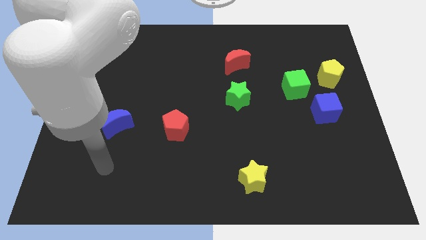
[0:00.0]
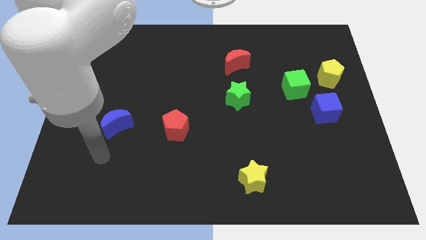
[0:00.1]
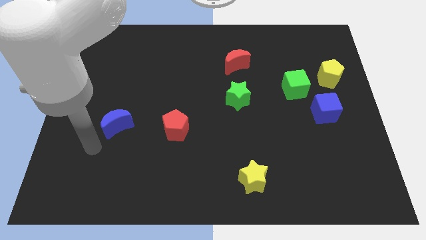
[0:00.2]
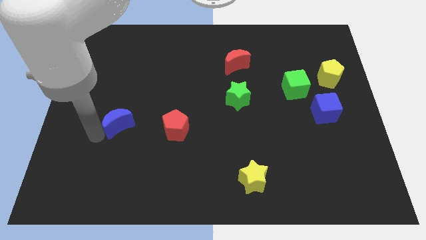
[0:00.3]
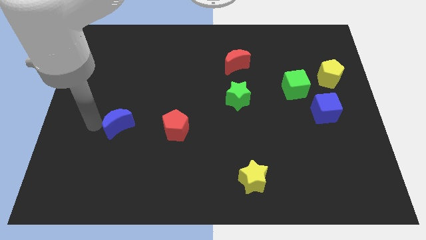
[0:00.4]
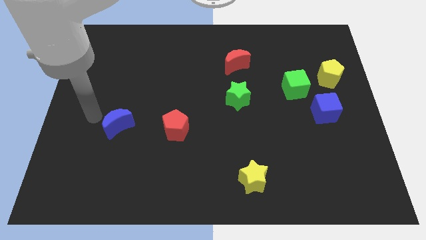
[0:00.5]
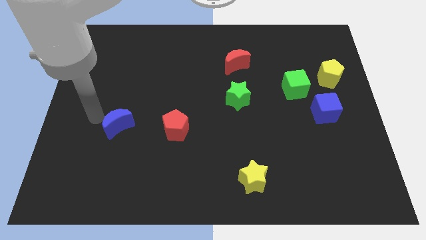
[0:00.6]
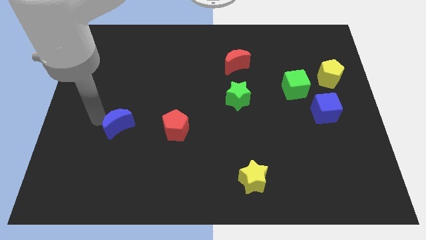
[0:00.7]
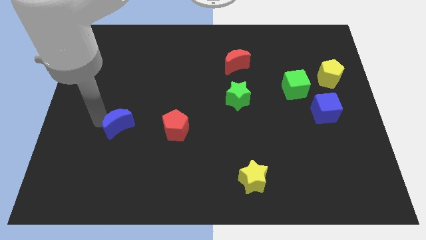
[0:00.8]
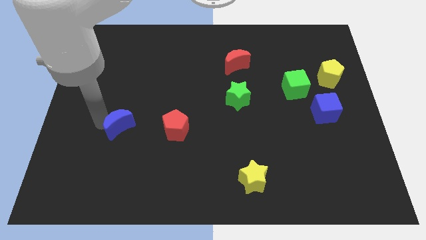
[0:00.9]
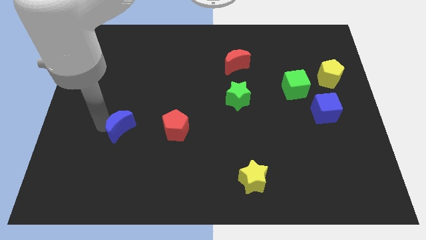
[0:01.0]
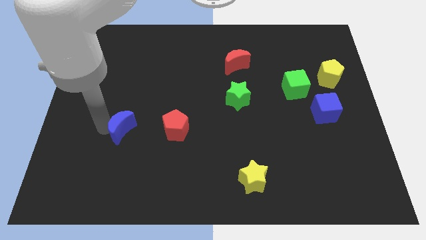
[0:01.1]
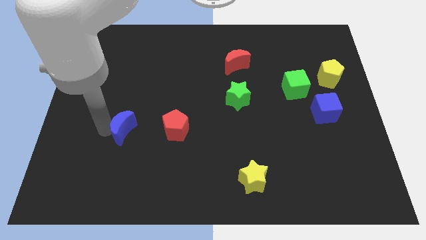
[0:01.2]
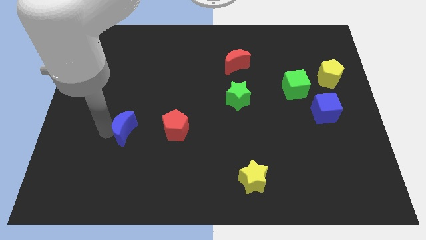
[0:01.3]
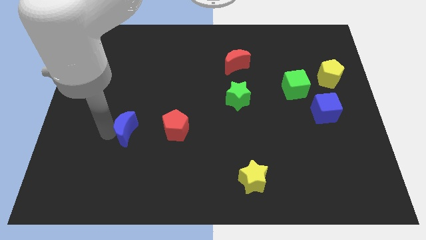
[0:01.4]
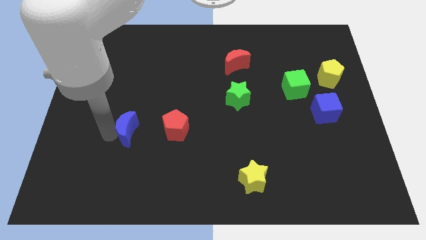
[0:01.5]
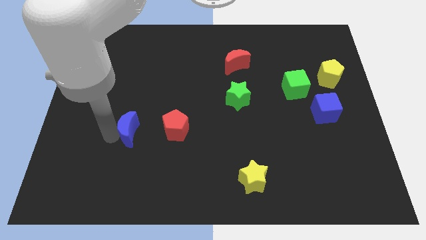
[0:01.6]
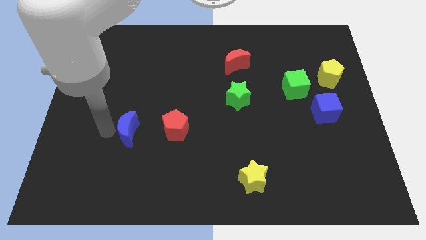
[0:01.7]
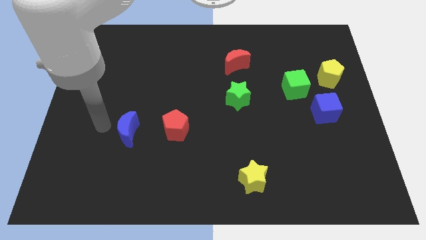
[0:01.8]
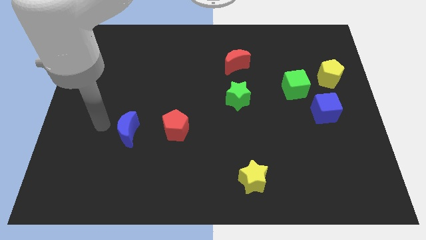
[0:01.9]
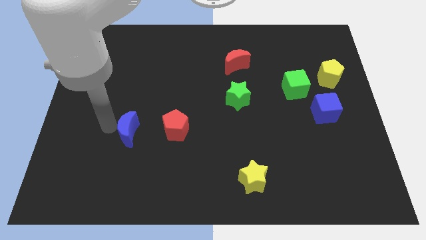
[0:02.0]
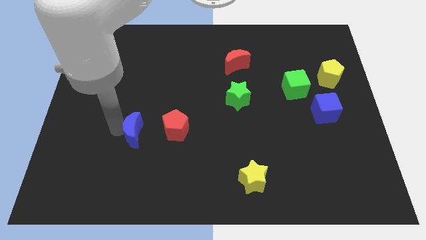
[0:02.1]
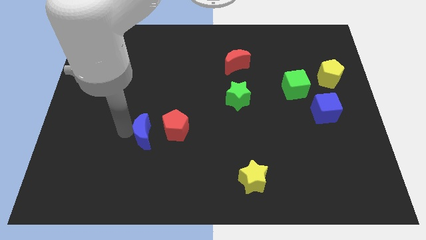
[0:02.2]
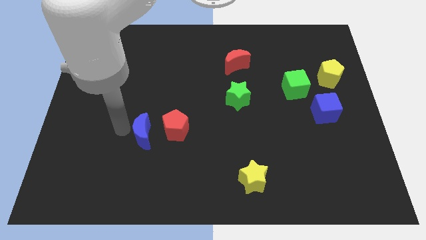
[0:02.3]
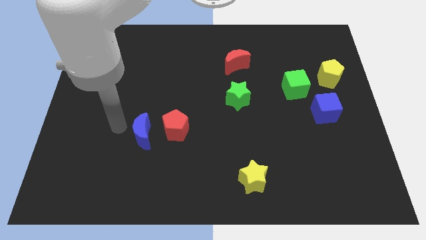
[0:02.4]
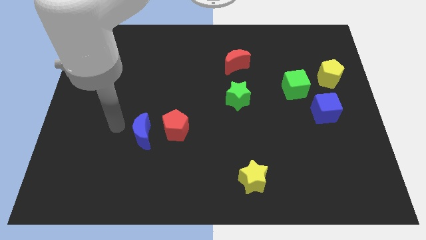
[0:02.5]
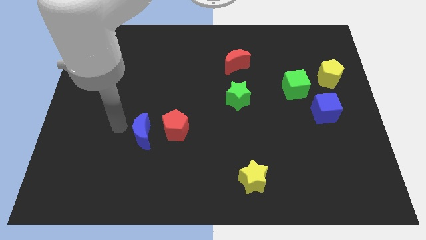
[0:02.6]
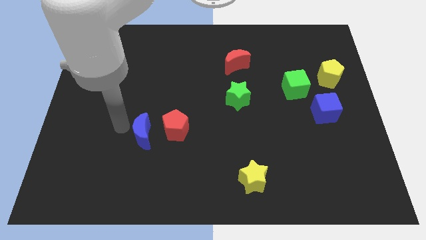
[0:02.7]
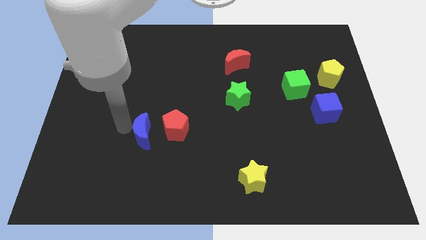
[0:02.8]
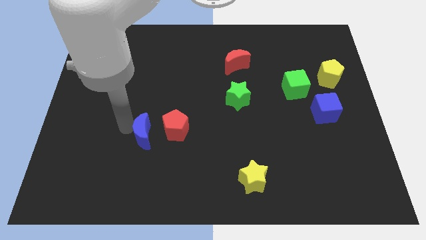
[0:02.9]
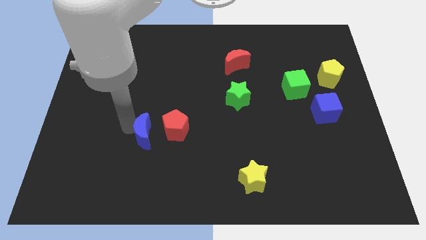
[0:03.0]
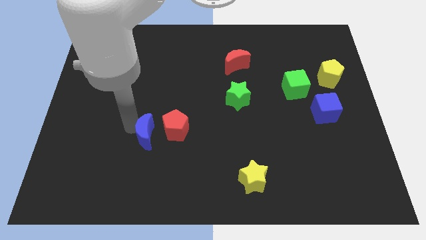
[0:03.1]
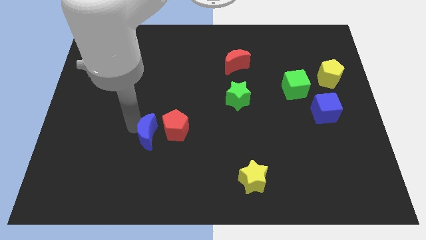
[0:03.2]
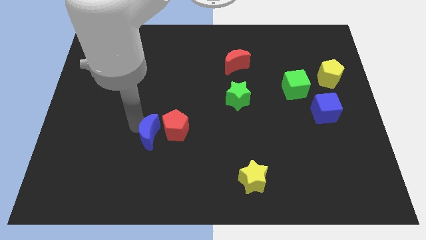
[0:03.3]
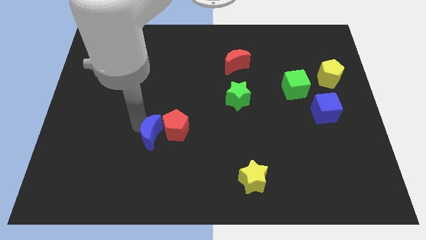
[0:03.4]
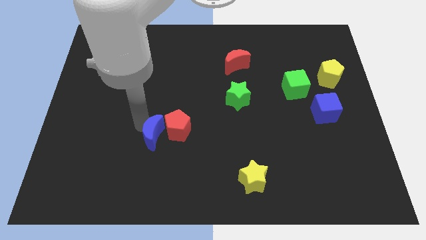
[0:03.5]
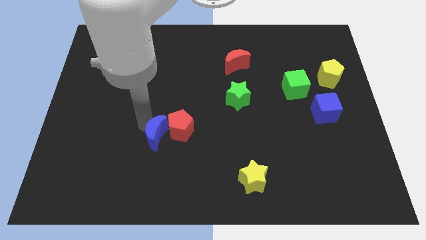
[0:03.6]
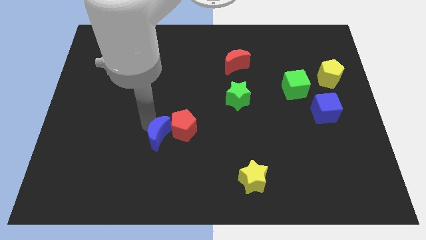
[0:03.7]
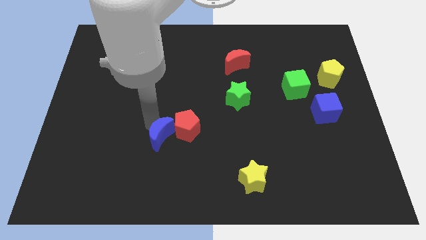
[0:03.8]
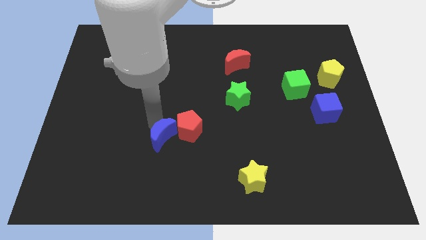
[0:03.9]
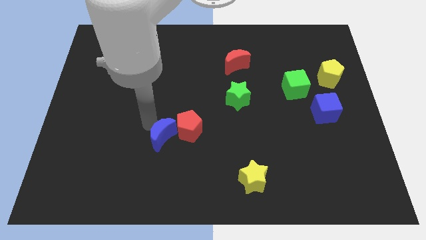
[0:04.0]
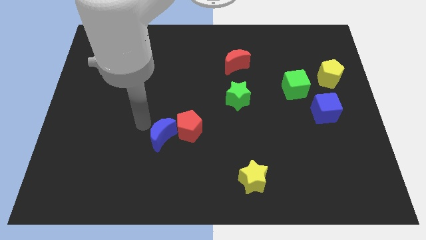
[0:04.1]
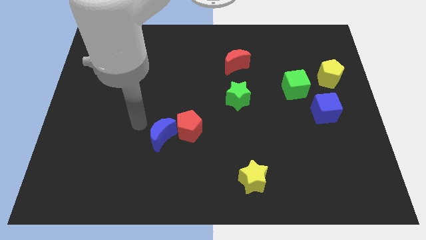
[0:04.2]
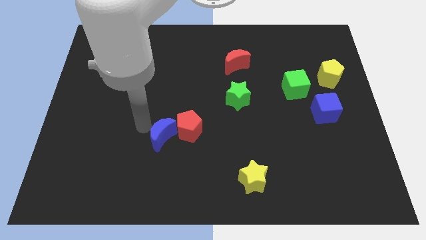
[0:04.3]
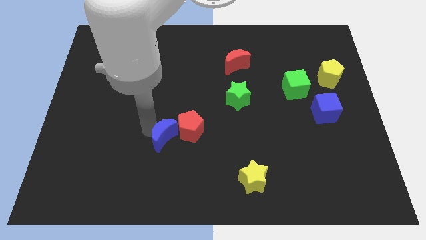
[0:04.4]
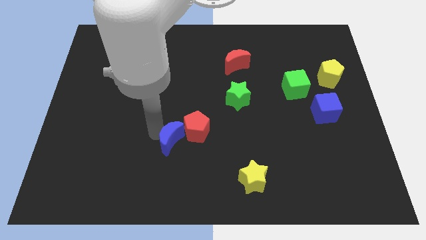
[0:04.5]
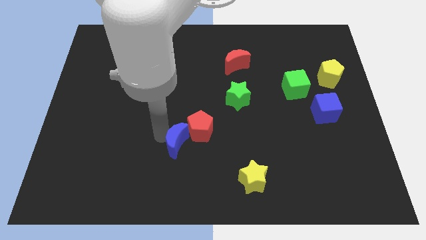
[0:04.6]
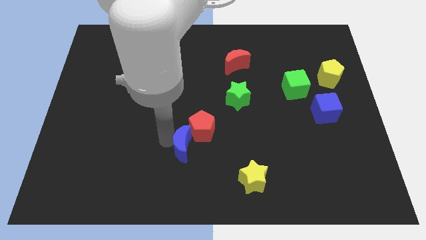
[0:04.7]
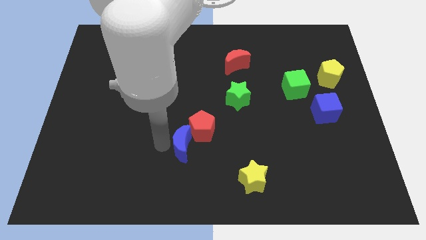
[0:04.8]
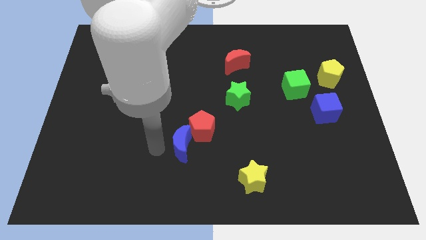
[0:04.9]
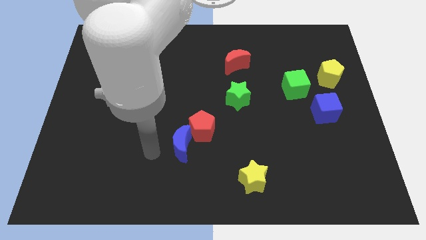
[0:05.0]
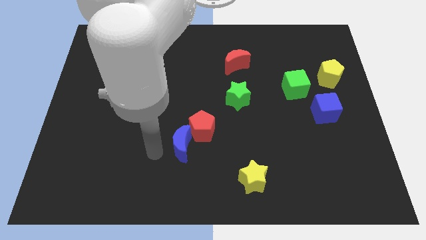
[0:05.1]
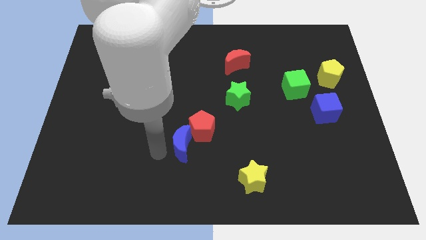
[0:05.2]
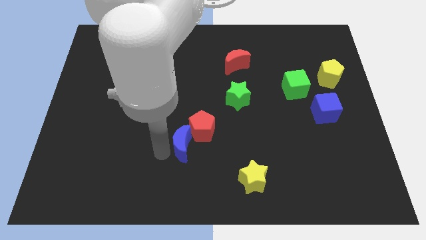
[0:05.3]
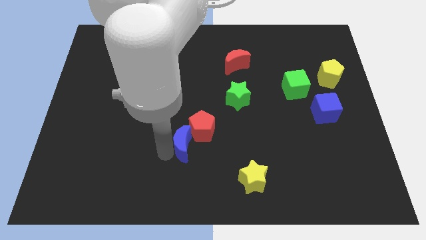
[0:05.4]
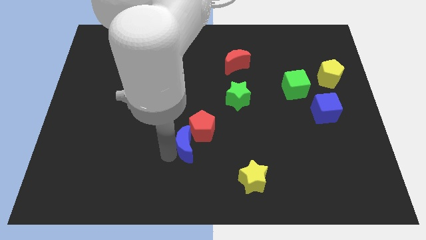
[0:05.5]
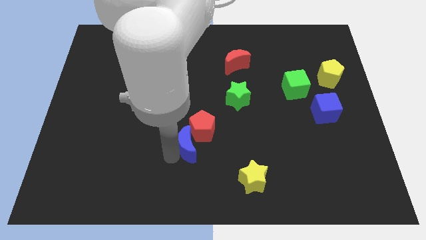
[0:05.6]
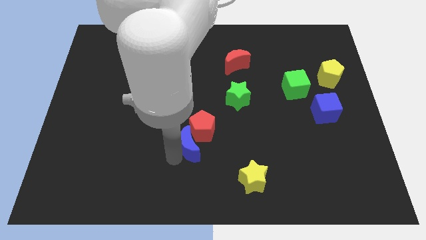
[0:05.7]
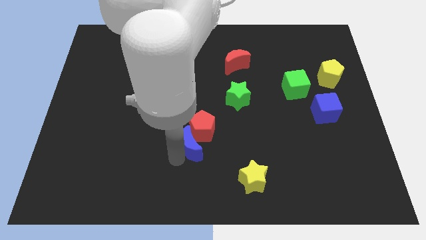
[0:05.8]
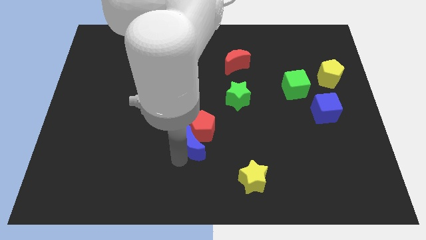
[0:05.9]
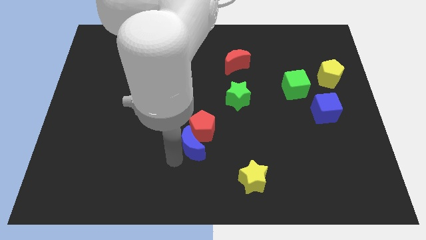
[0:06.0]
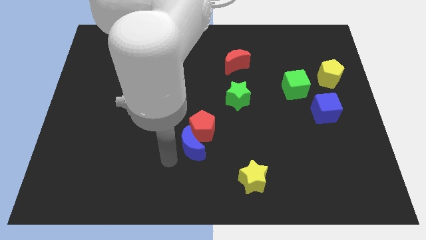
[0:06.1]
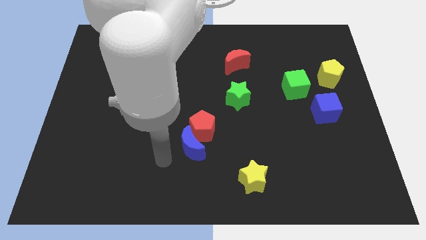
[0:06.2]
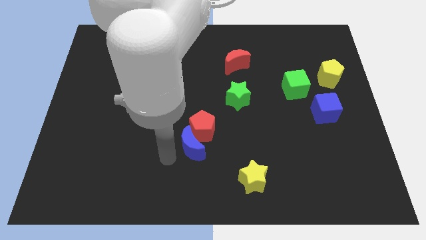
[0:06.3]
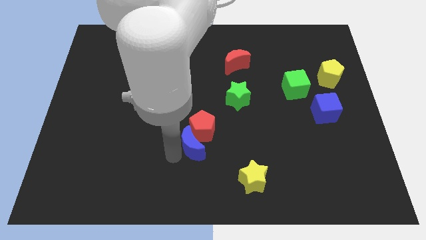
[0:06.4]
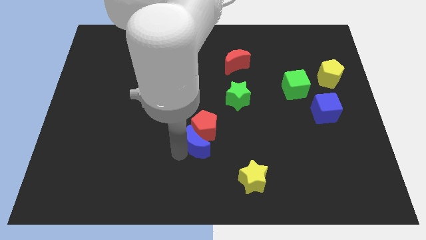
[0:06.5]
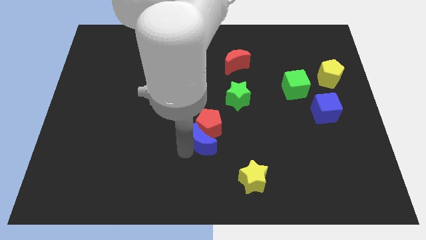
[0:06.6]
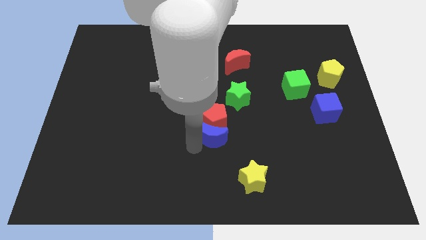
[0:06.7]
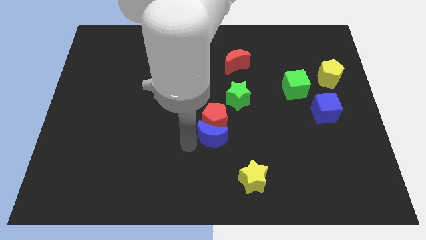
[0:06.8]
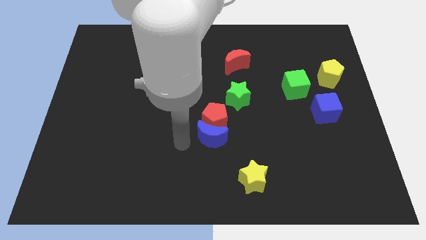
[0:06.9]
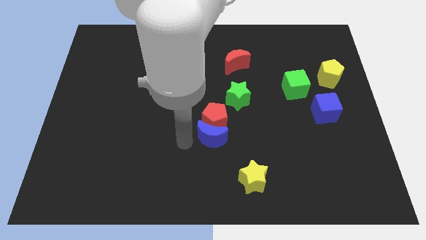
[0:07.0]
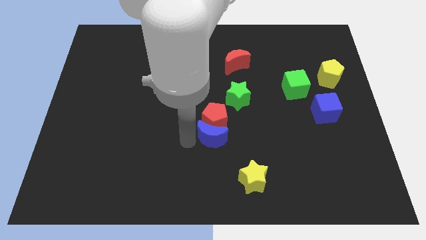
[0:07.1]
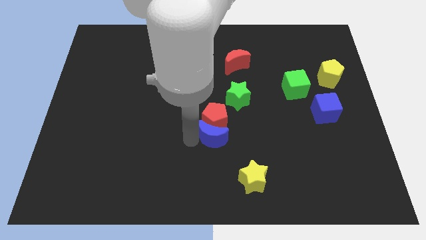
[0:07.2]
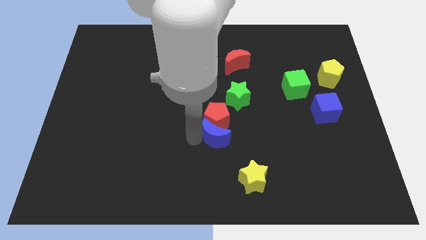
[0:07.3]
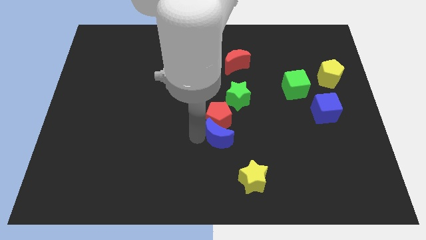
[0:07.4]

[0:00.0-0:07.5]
slide the blue moon to the bottom side of the green star

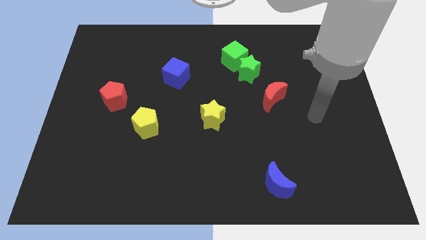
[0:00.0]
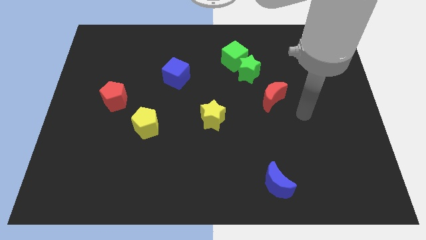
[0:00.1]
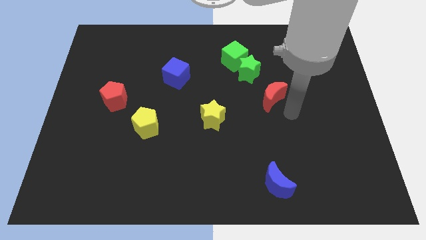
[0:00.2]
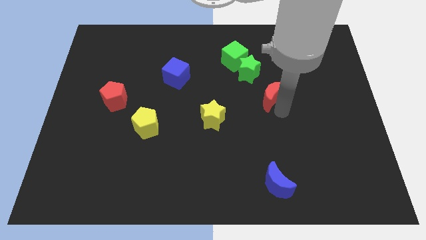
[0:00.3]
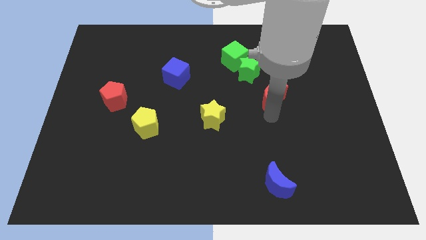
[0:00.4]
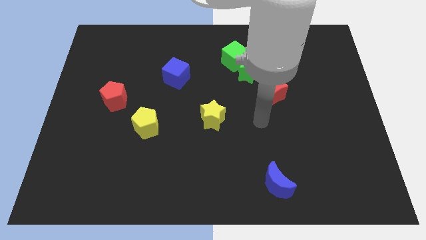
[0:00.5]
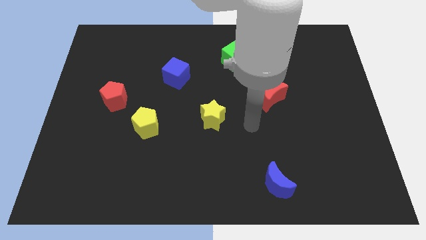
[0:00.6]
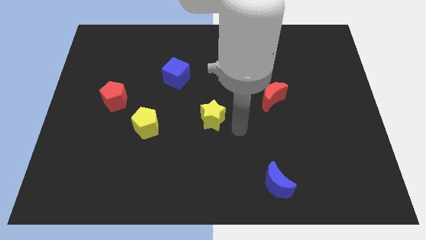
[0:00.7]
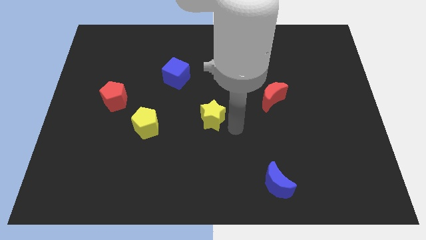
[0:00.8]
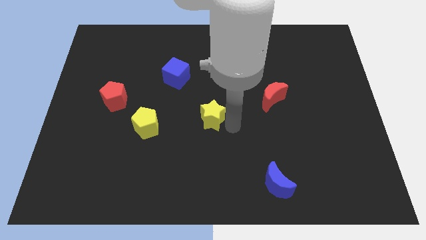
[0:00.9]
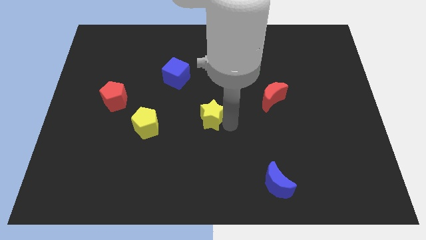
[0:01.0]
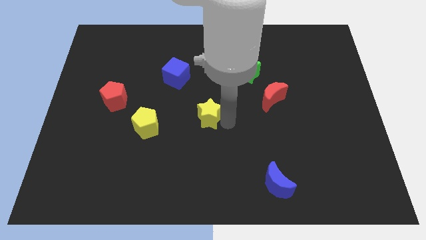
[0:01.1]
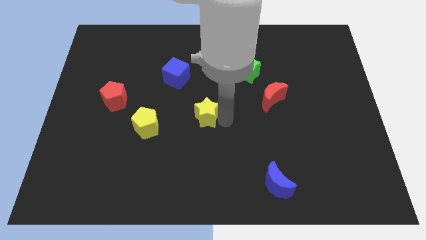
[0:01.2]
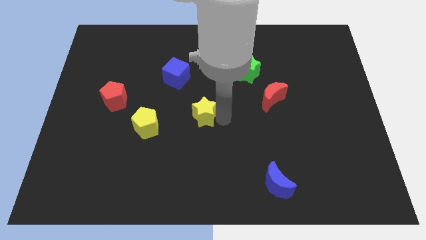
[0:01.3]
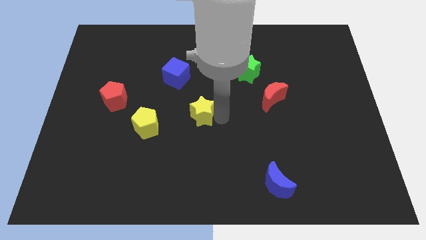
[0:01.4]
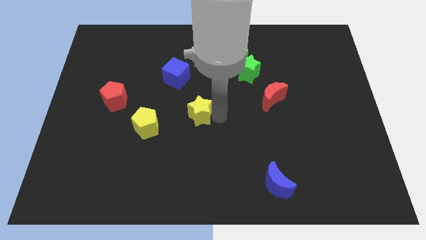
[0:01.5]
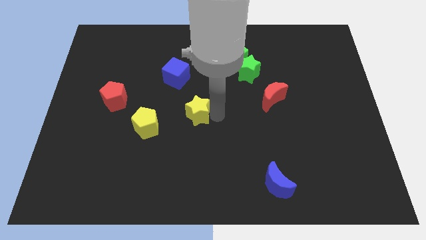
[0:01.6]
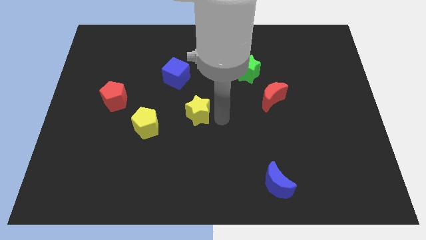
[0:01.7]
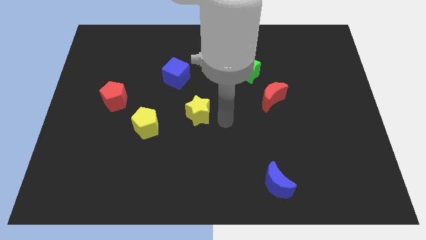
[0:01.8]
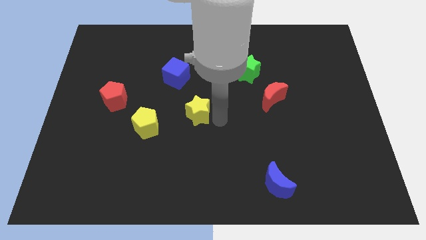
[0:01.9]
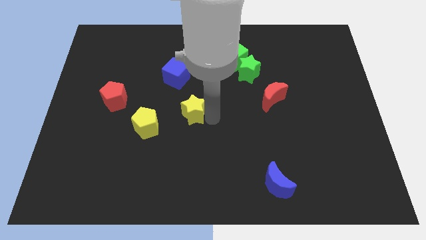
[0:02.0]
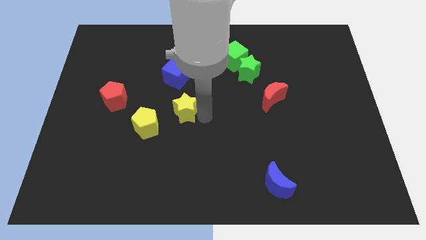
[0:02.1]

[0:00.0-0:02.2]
slide the yellow star diagonally up and to the right of the yellow pentagon
